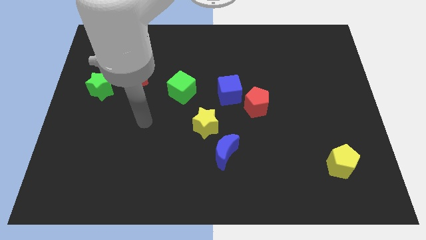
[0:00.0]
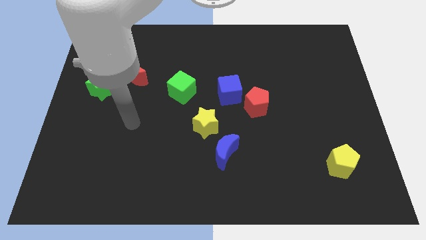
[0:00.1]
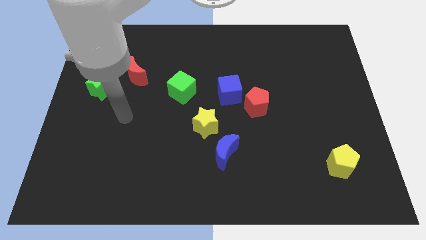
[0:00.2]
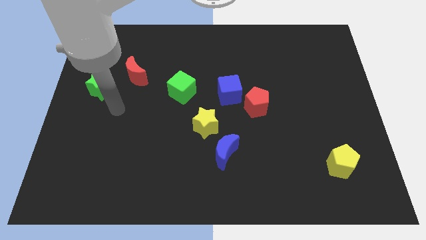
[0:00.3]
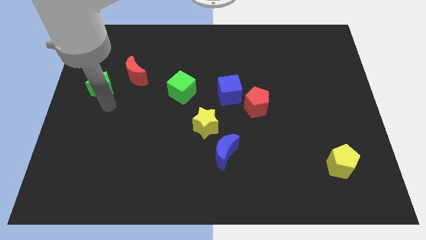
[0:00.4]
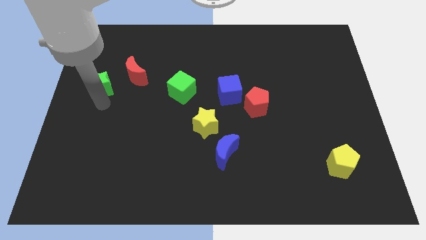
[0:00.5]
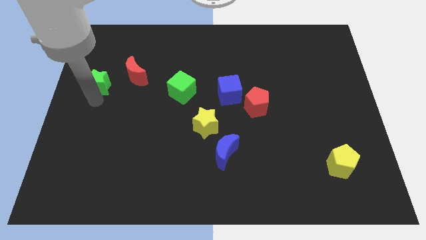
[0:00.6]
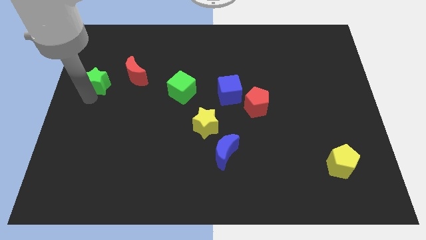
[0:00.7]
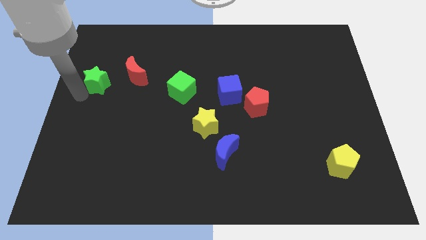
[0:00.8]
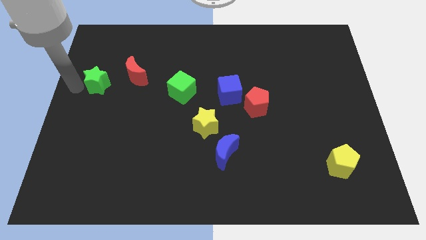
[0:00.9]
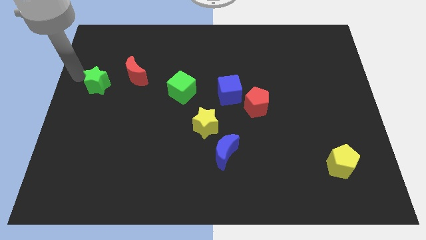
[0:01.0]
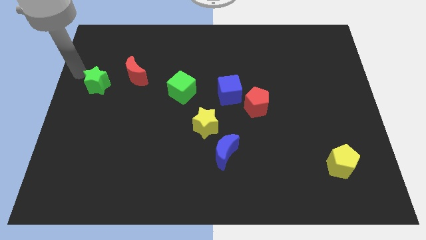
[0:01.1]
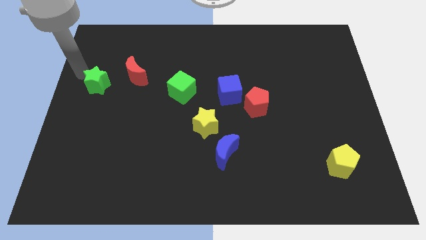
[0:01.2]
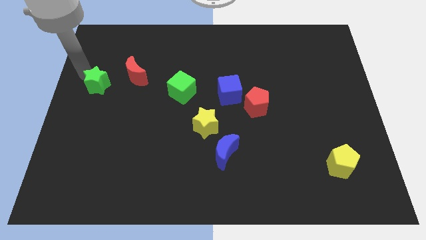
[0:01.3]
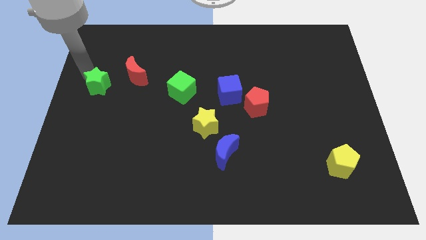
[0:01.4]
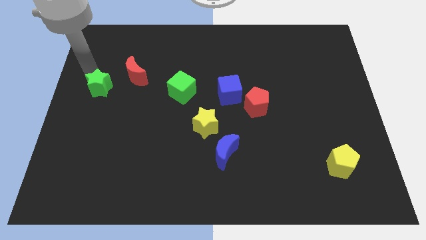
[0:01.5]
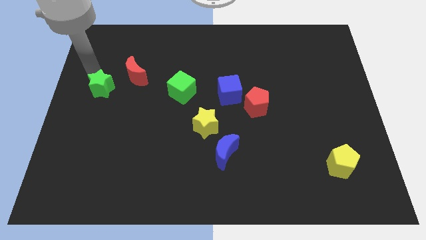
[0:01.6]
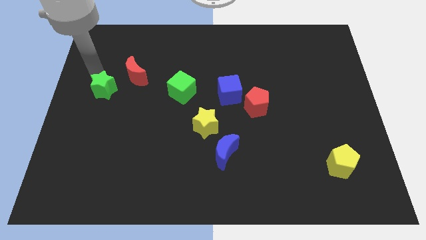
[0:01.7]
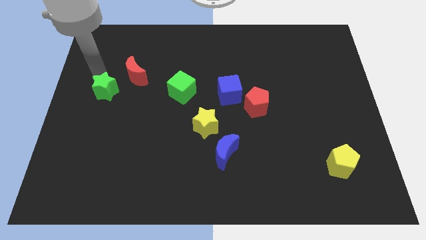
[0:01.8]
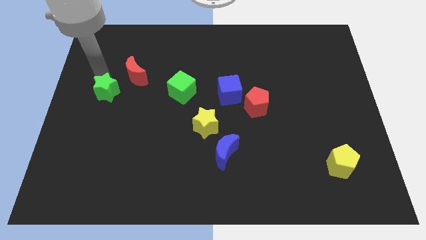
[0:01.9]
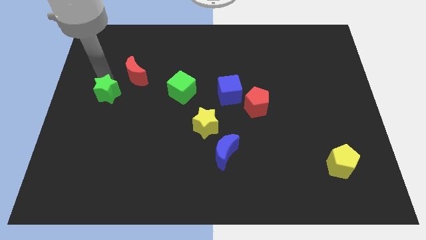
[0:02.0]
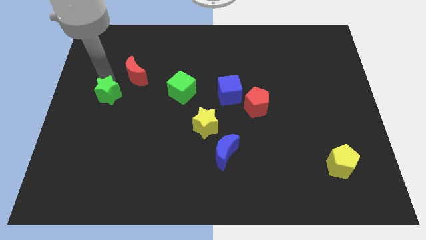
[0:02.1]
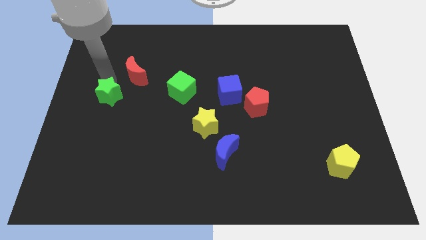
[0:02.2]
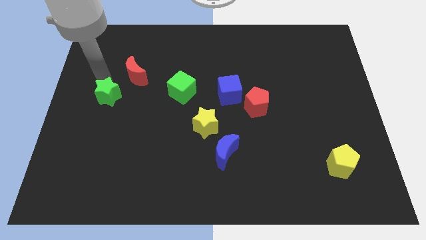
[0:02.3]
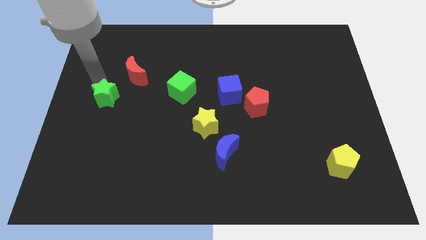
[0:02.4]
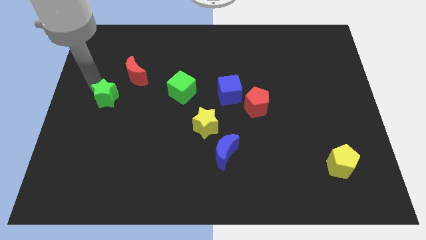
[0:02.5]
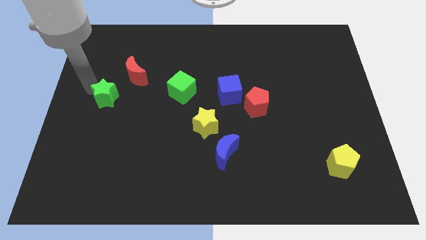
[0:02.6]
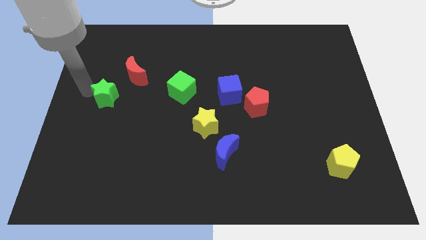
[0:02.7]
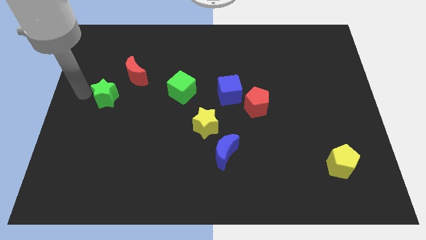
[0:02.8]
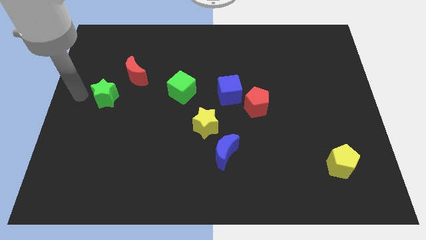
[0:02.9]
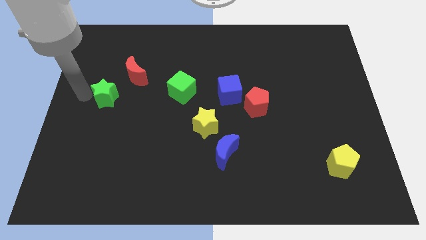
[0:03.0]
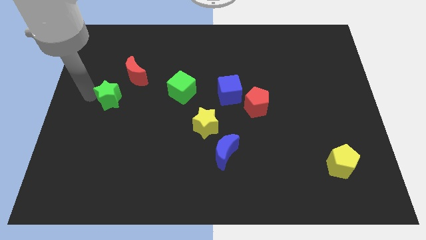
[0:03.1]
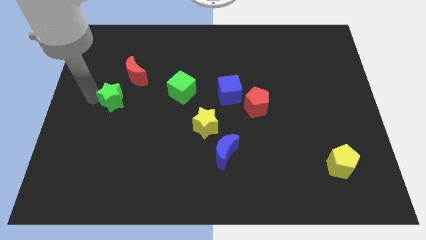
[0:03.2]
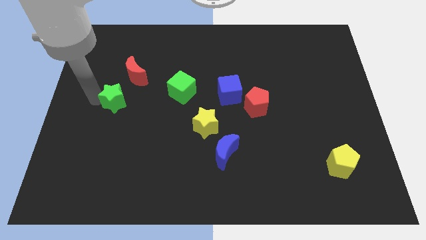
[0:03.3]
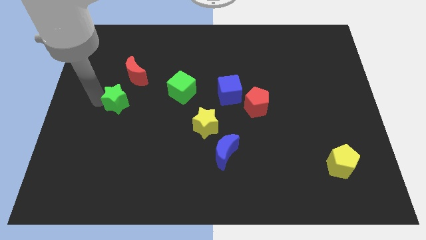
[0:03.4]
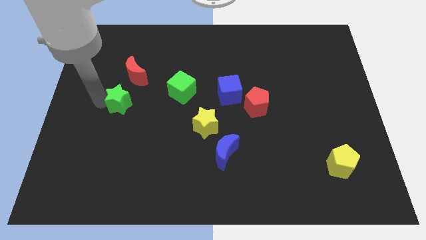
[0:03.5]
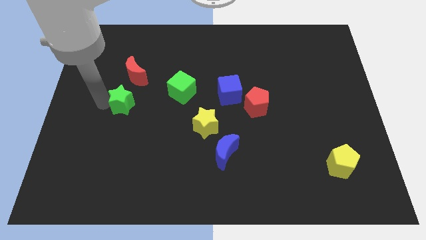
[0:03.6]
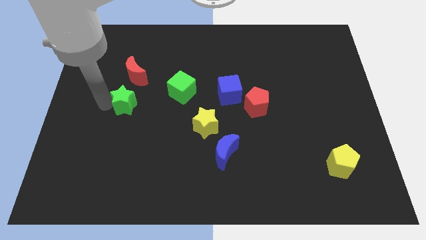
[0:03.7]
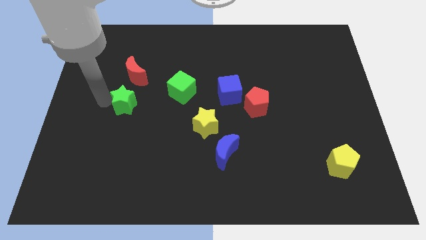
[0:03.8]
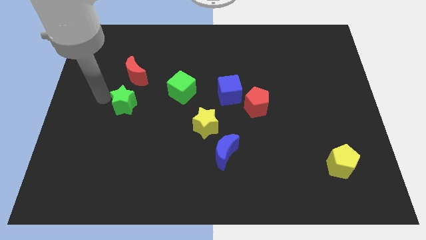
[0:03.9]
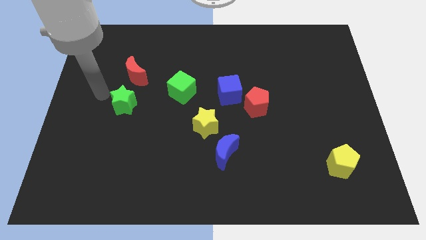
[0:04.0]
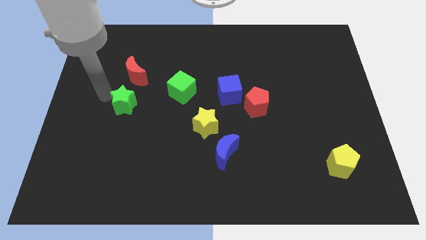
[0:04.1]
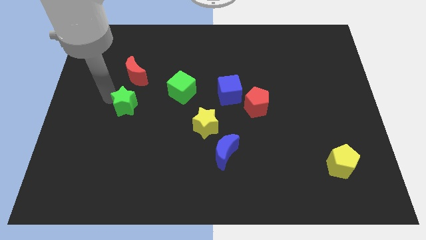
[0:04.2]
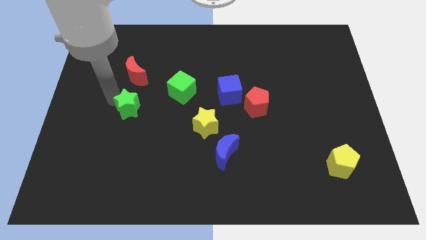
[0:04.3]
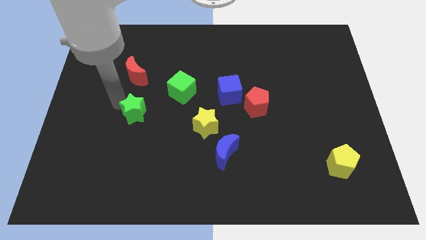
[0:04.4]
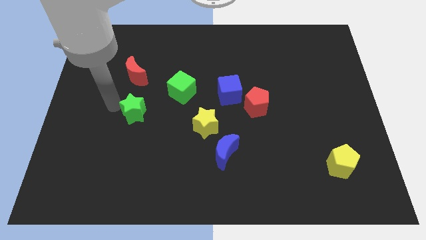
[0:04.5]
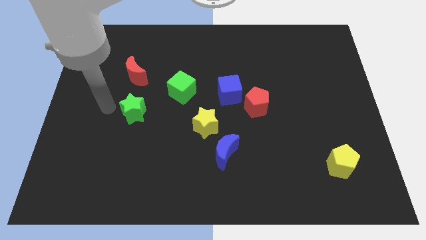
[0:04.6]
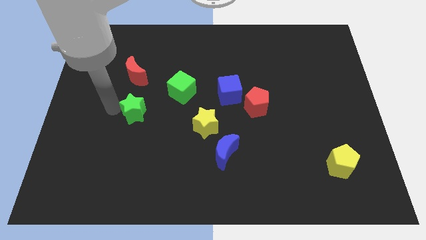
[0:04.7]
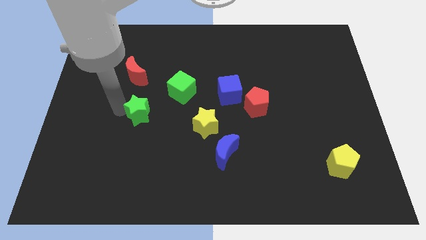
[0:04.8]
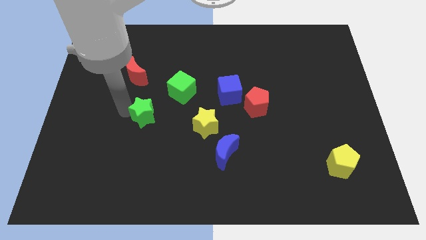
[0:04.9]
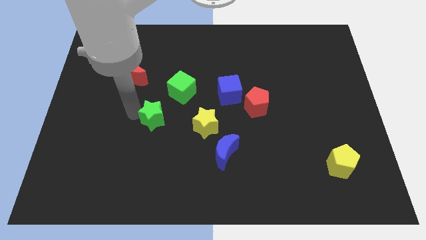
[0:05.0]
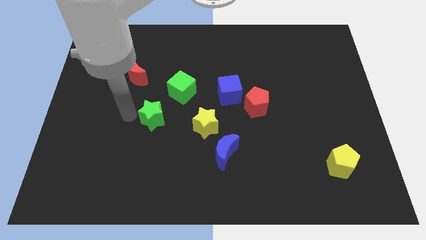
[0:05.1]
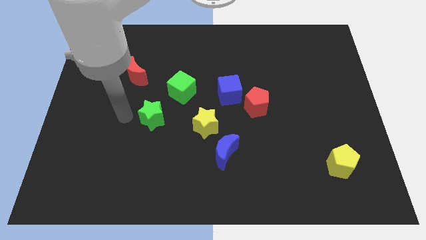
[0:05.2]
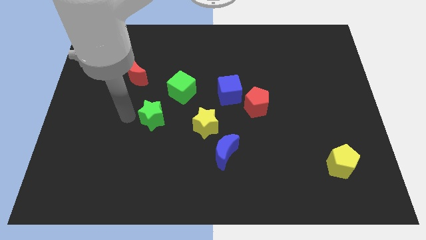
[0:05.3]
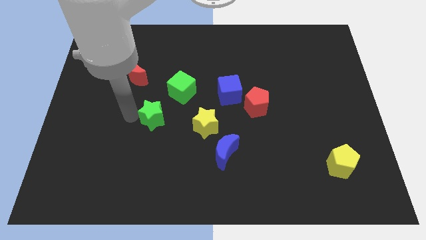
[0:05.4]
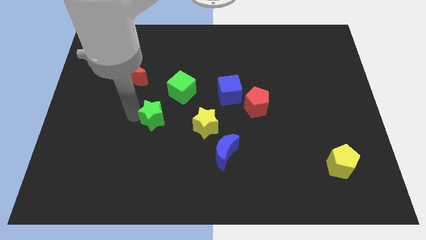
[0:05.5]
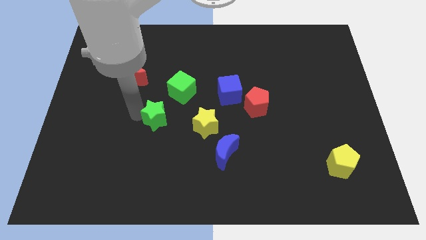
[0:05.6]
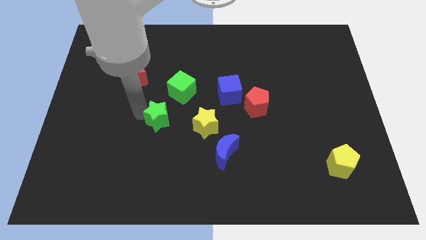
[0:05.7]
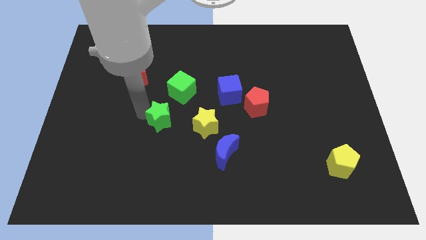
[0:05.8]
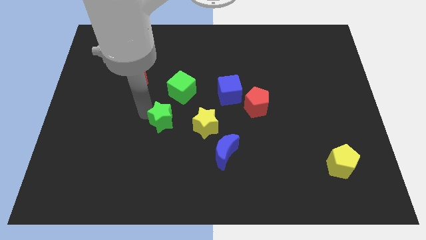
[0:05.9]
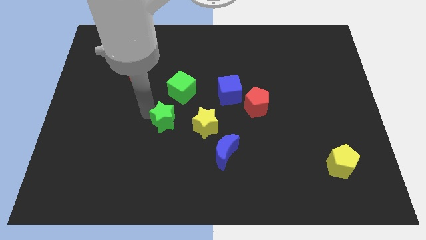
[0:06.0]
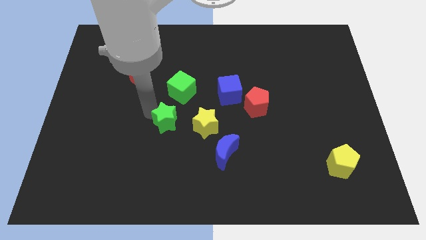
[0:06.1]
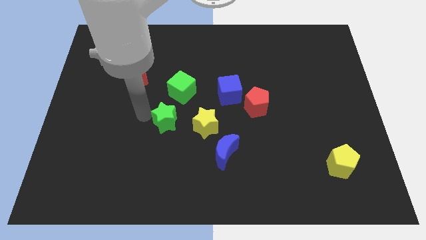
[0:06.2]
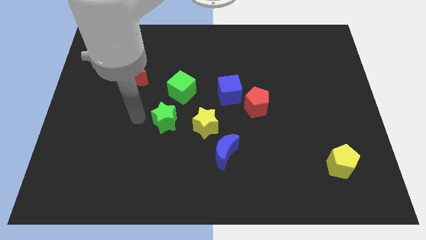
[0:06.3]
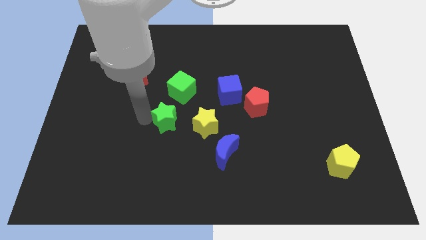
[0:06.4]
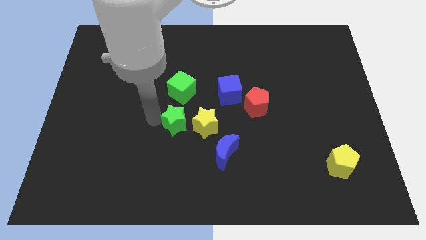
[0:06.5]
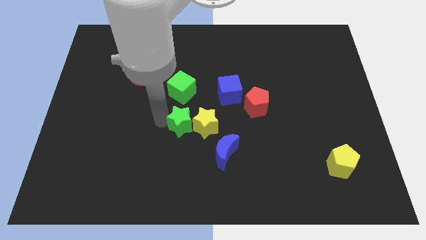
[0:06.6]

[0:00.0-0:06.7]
slide the green star next to the yellow star

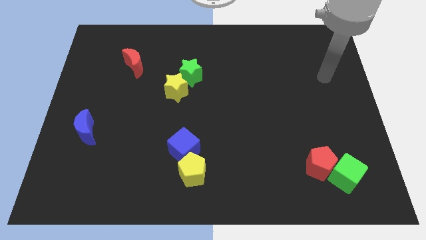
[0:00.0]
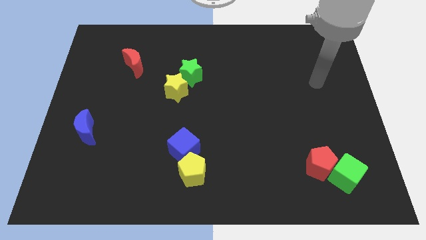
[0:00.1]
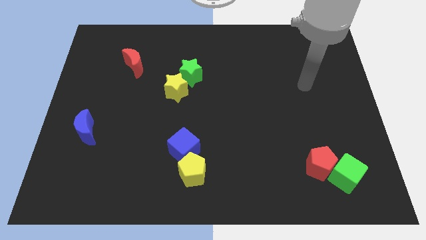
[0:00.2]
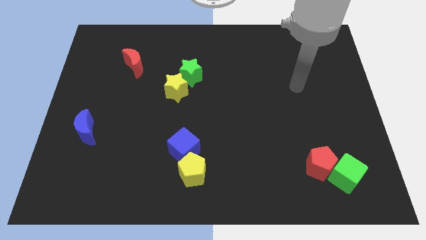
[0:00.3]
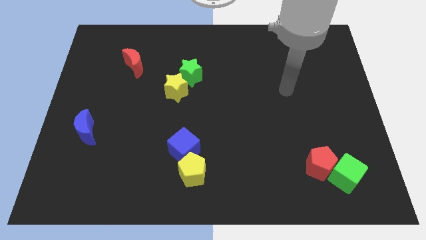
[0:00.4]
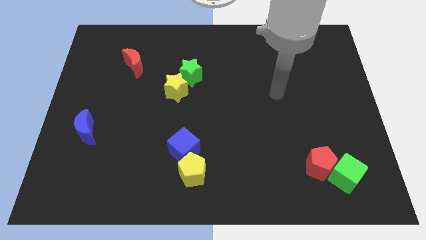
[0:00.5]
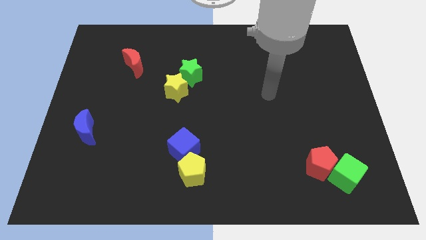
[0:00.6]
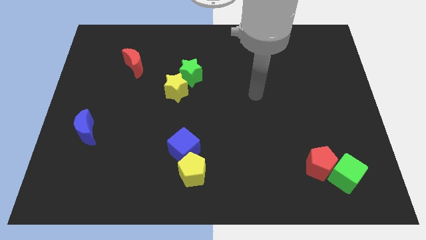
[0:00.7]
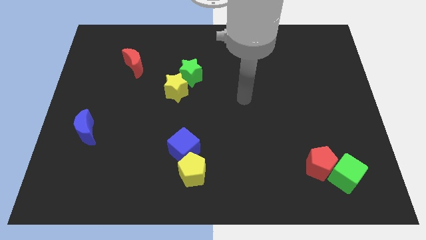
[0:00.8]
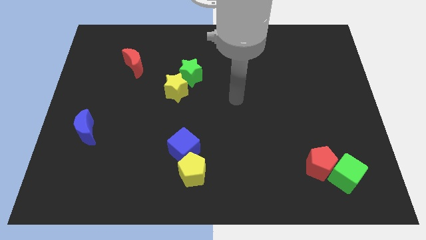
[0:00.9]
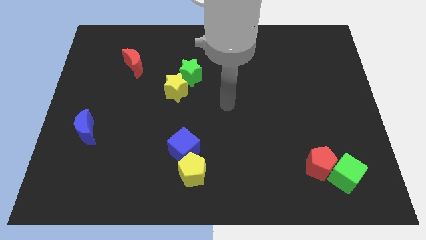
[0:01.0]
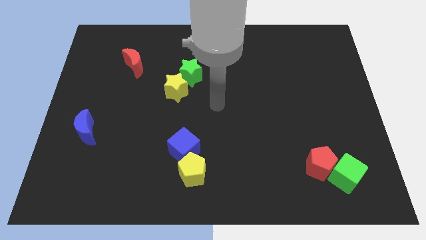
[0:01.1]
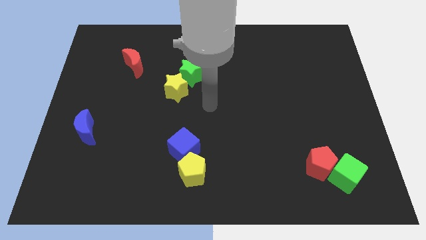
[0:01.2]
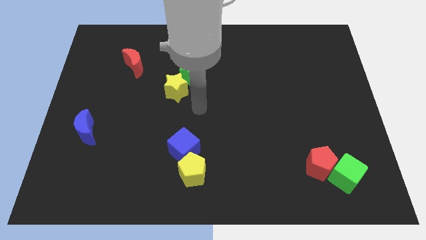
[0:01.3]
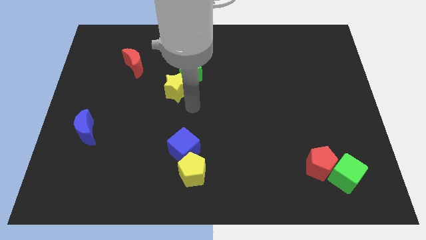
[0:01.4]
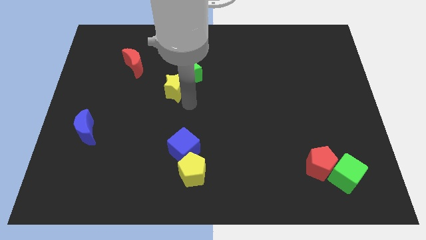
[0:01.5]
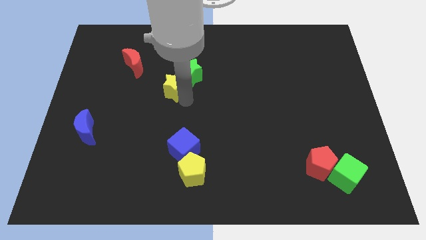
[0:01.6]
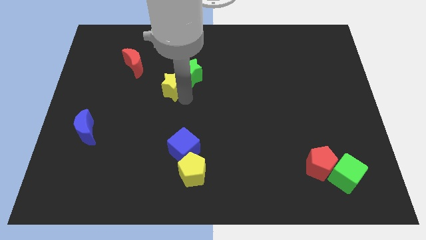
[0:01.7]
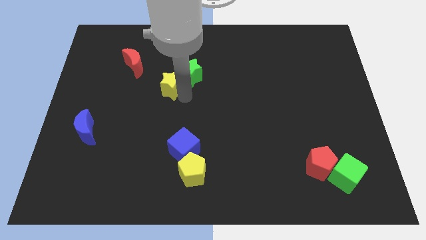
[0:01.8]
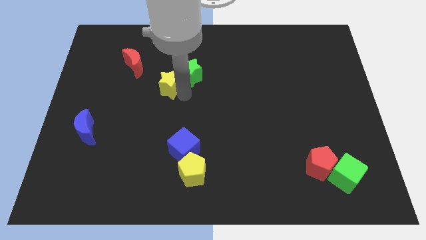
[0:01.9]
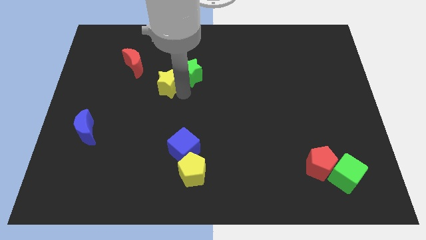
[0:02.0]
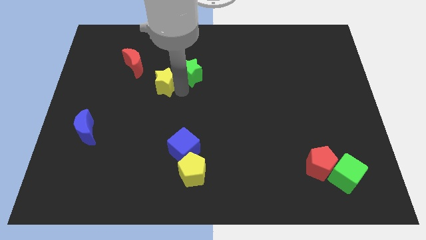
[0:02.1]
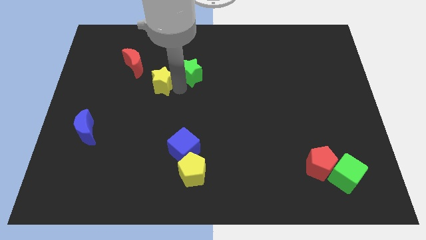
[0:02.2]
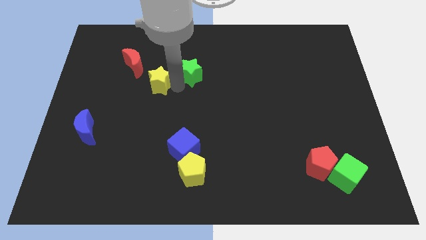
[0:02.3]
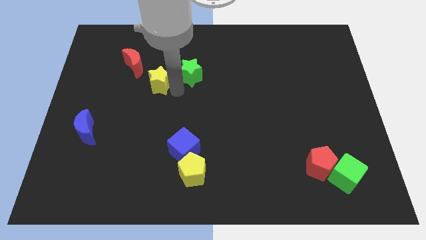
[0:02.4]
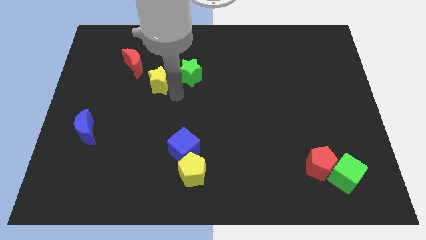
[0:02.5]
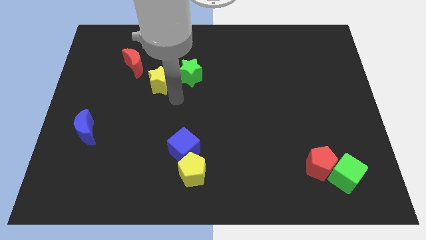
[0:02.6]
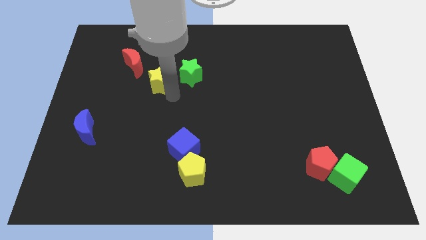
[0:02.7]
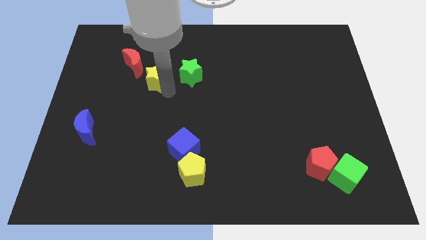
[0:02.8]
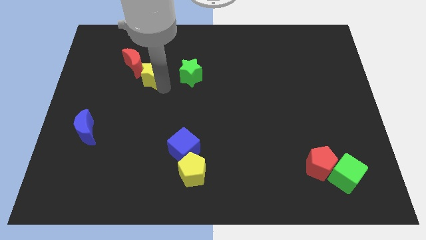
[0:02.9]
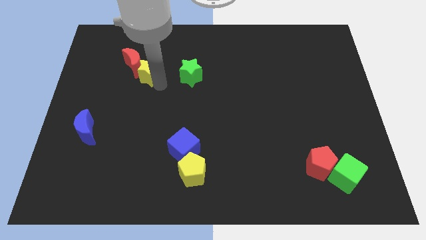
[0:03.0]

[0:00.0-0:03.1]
push the yellow star next to the red moon
